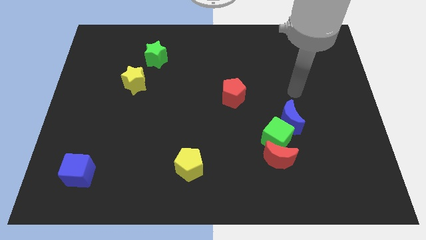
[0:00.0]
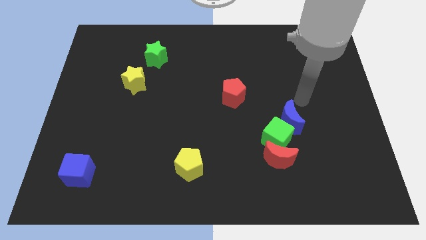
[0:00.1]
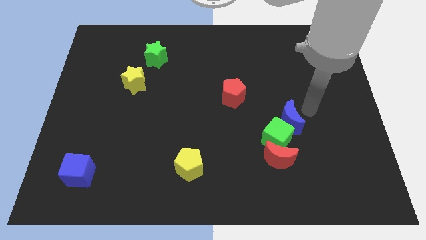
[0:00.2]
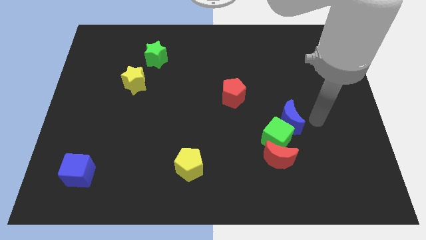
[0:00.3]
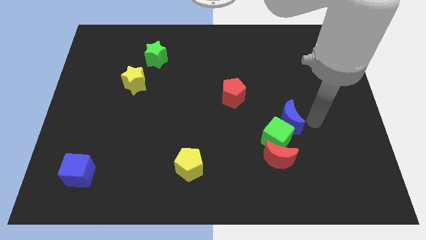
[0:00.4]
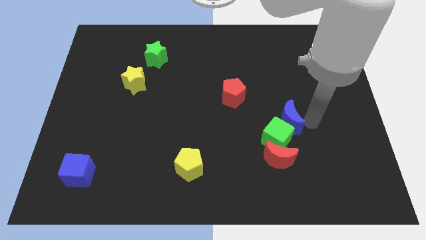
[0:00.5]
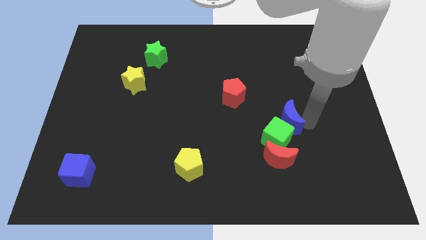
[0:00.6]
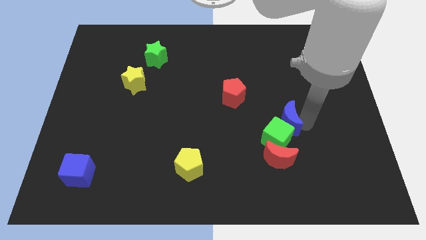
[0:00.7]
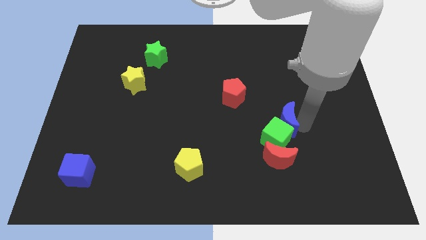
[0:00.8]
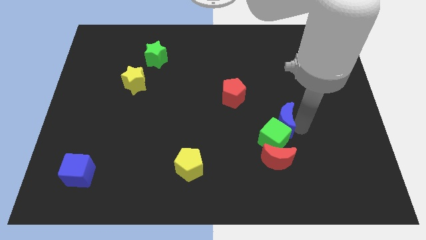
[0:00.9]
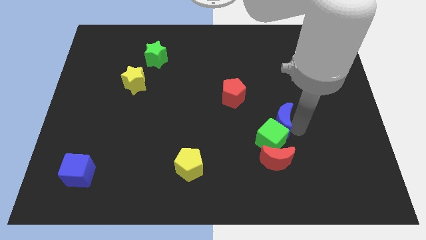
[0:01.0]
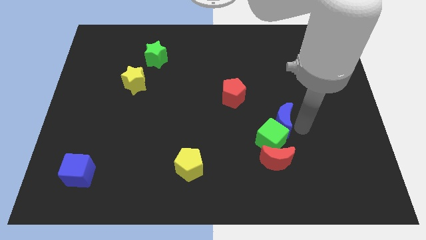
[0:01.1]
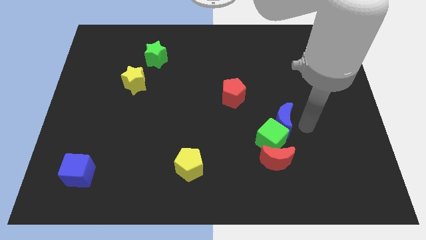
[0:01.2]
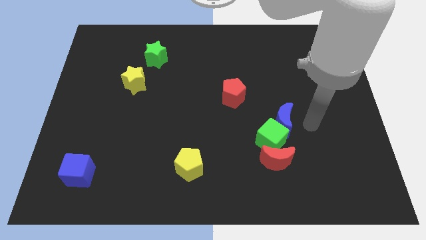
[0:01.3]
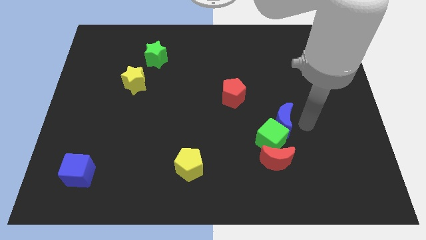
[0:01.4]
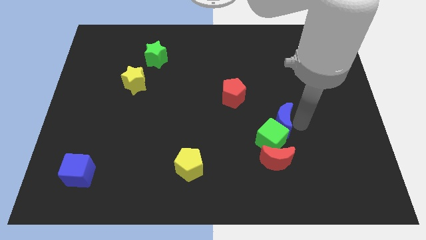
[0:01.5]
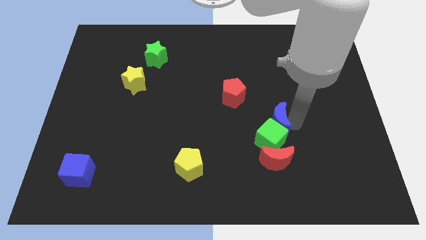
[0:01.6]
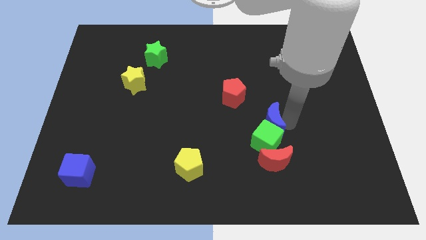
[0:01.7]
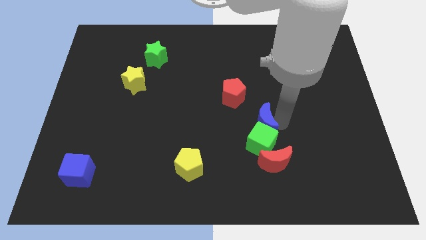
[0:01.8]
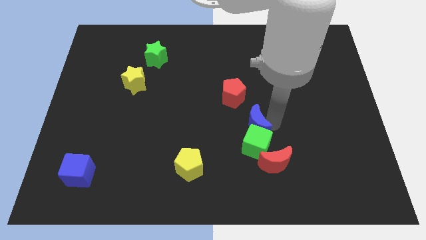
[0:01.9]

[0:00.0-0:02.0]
slide the blue moon to the left a little bit

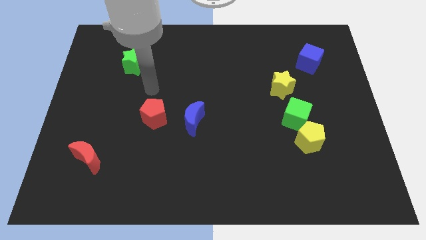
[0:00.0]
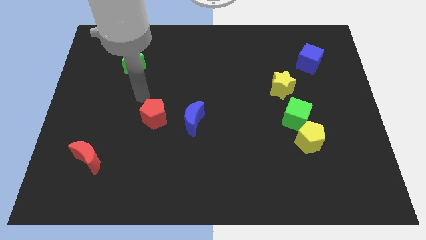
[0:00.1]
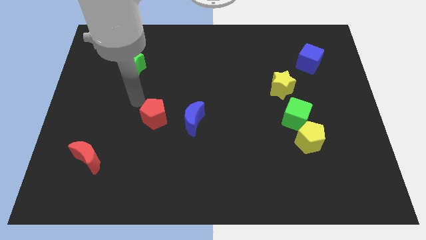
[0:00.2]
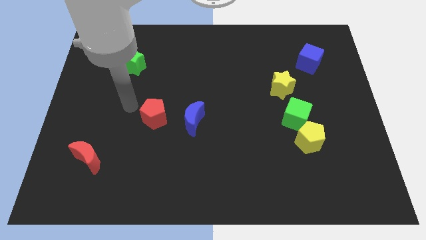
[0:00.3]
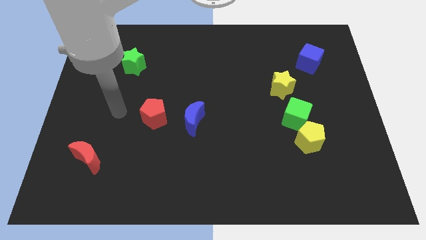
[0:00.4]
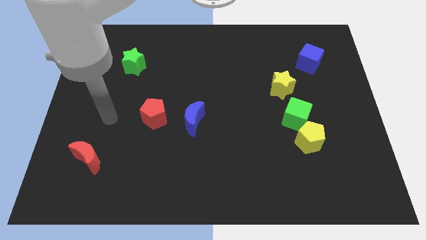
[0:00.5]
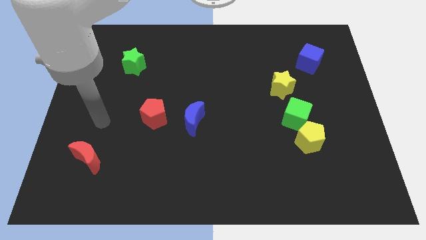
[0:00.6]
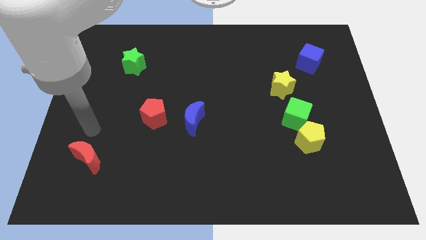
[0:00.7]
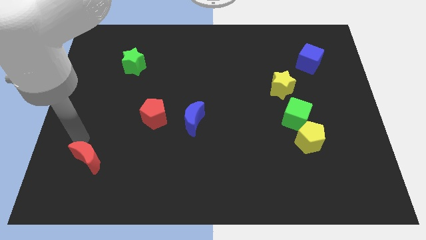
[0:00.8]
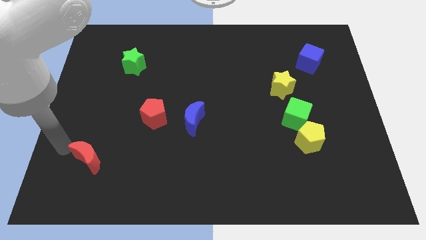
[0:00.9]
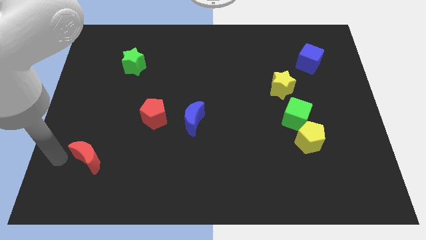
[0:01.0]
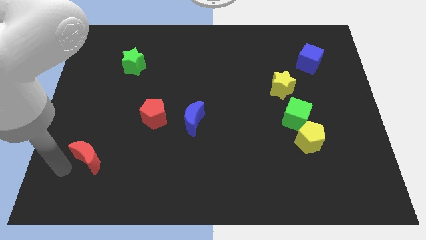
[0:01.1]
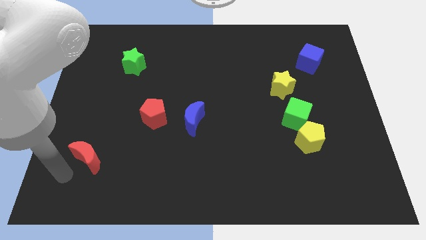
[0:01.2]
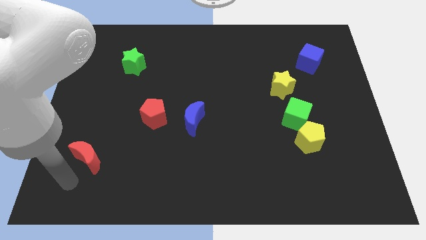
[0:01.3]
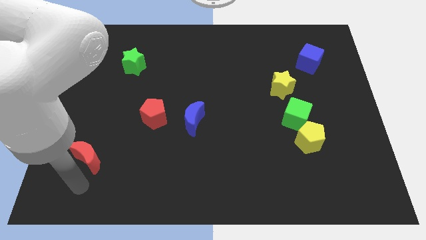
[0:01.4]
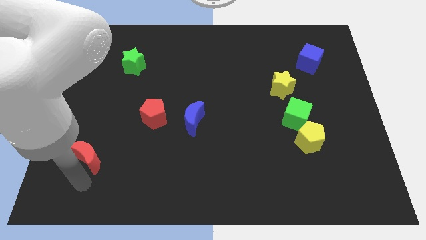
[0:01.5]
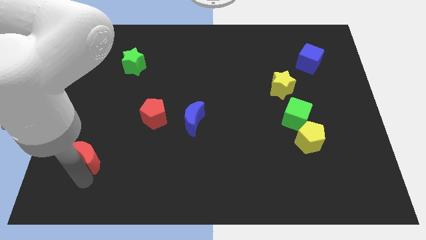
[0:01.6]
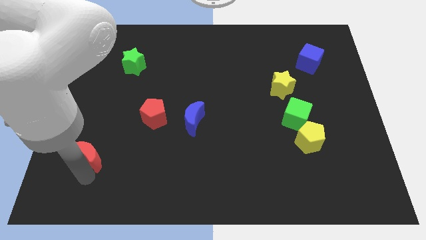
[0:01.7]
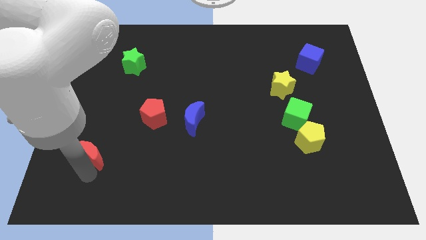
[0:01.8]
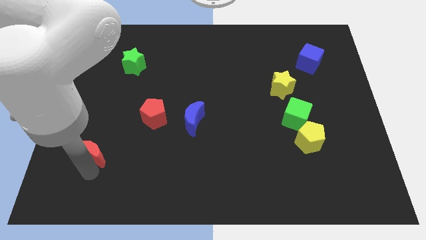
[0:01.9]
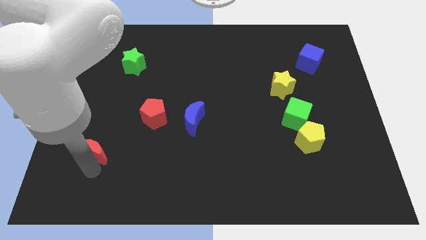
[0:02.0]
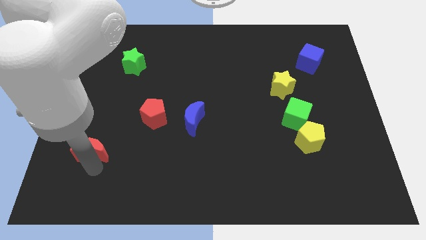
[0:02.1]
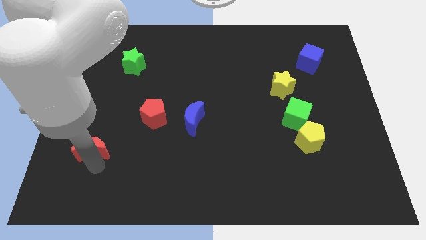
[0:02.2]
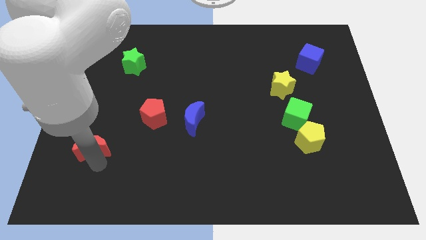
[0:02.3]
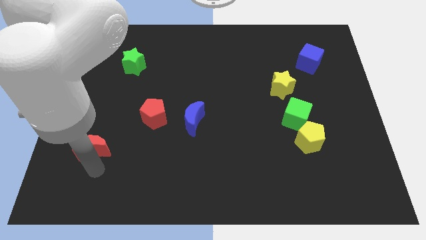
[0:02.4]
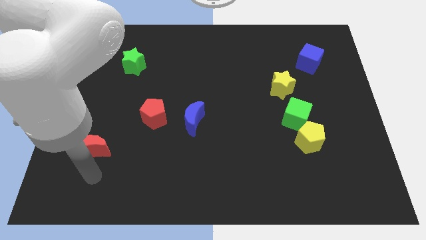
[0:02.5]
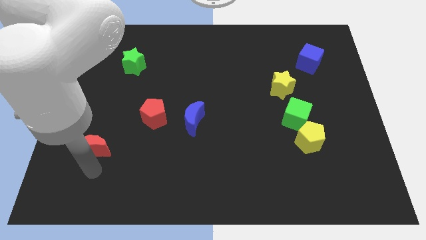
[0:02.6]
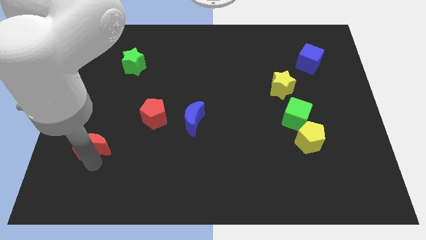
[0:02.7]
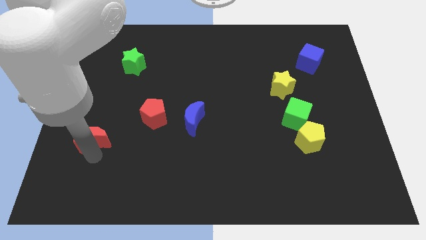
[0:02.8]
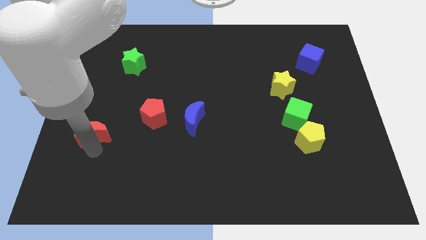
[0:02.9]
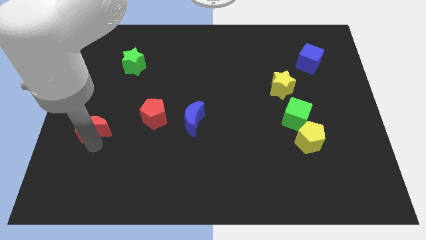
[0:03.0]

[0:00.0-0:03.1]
slightly slide the red moon upwards

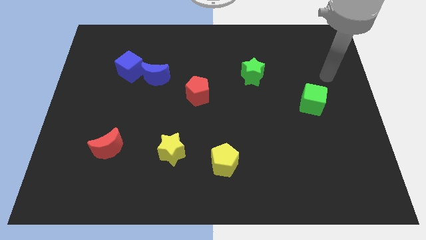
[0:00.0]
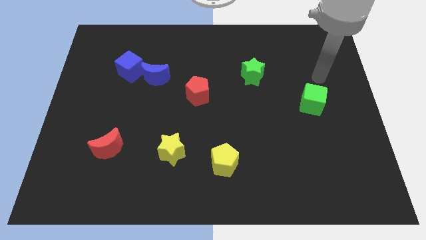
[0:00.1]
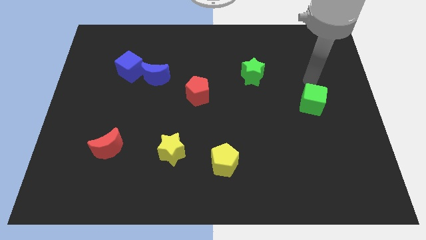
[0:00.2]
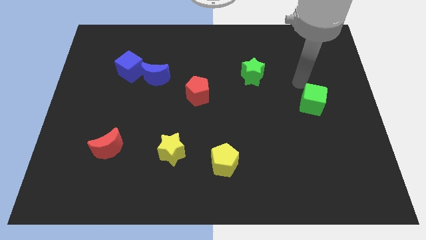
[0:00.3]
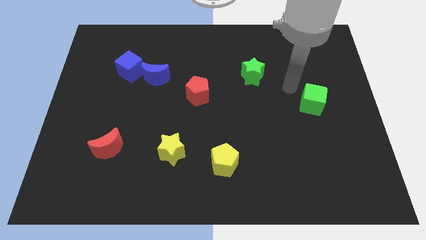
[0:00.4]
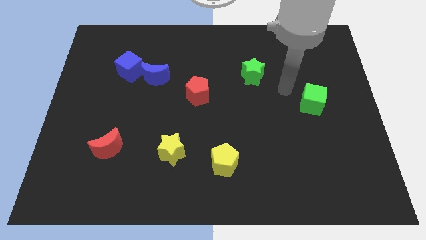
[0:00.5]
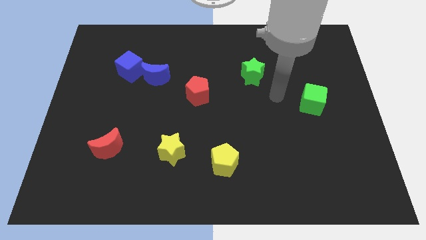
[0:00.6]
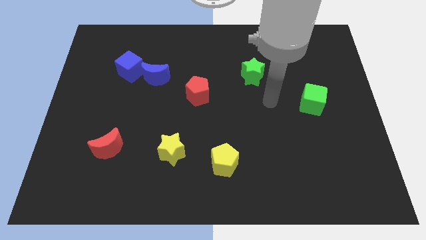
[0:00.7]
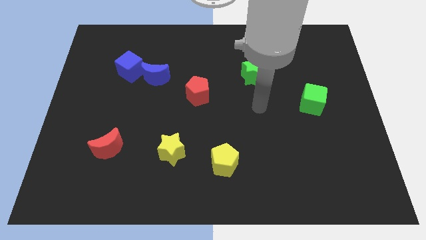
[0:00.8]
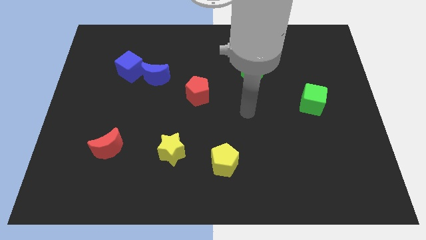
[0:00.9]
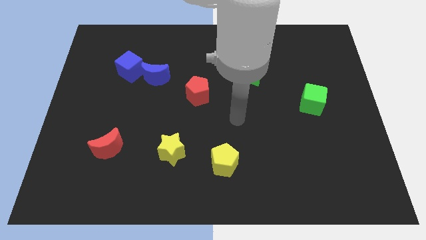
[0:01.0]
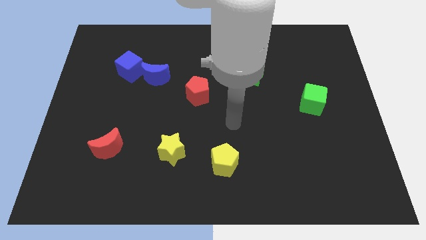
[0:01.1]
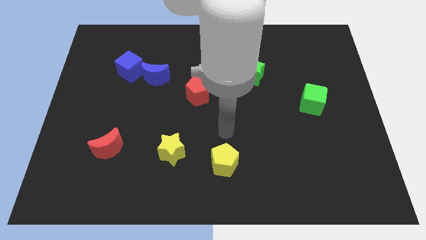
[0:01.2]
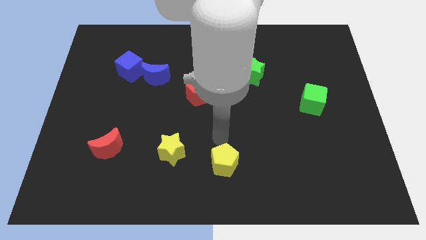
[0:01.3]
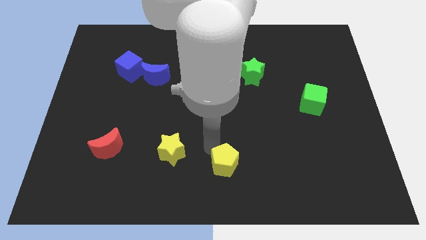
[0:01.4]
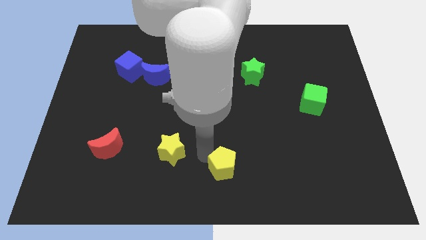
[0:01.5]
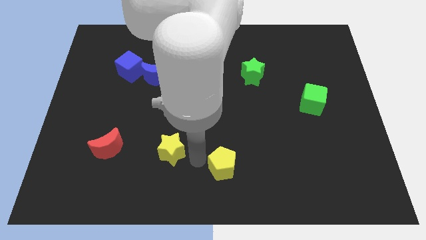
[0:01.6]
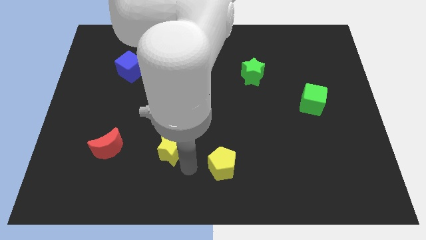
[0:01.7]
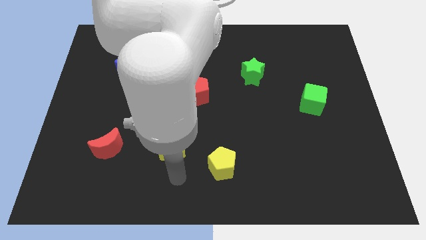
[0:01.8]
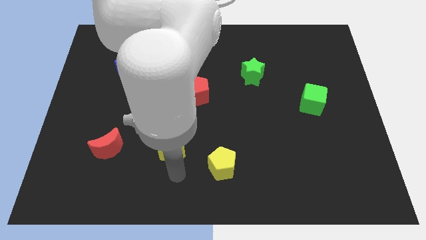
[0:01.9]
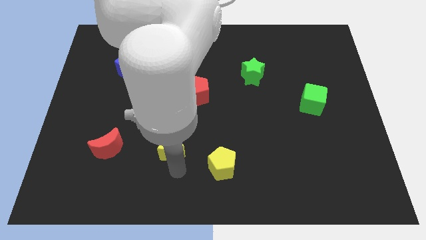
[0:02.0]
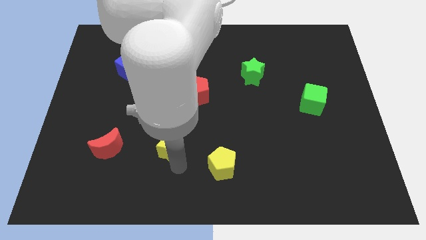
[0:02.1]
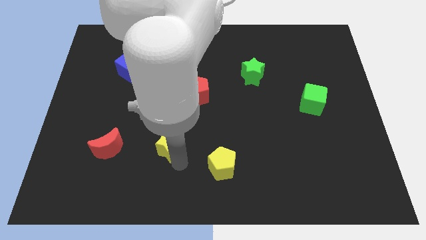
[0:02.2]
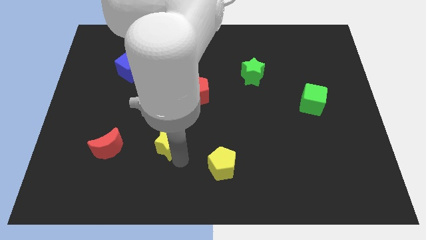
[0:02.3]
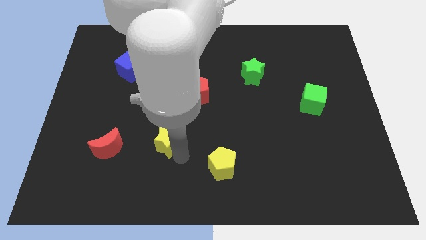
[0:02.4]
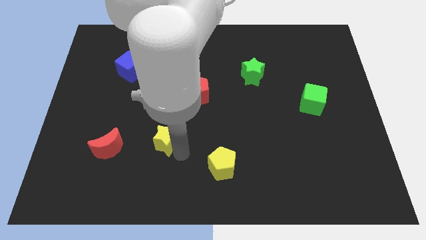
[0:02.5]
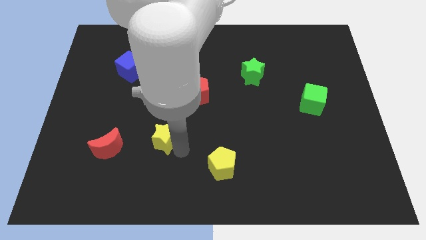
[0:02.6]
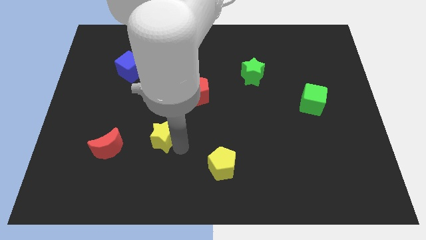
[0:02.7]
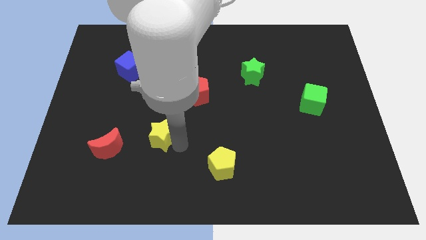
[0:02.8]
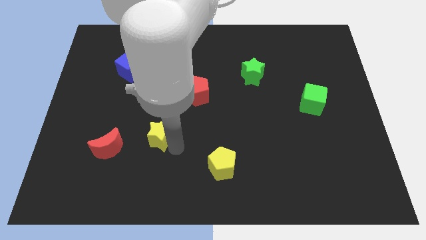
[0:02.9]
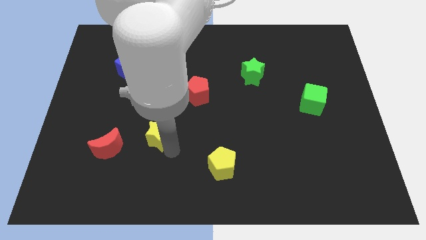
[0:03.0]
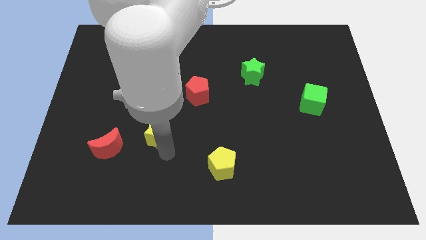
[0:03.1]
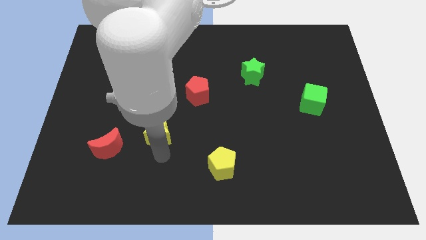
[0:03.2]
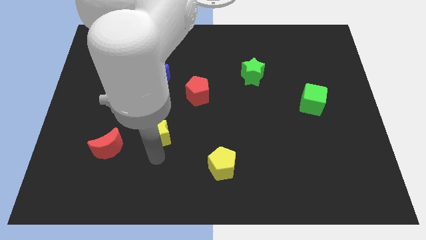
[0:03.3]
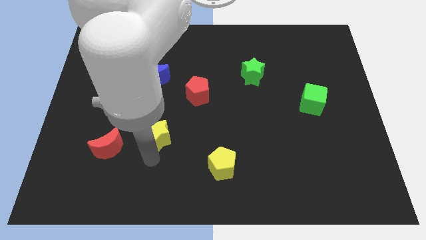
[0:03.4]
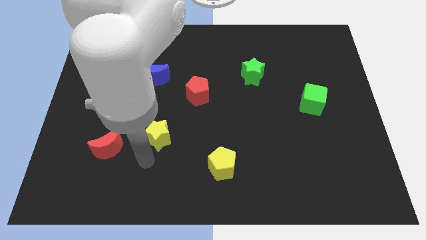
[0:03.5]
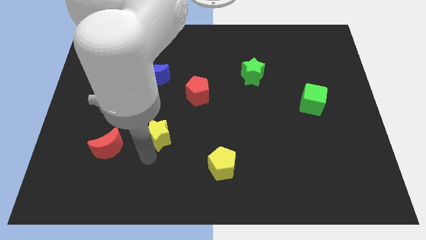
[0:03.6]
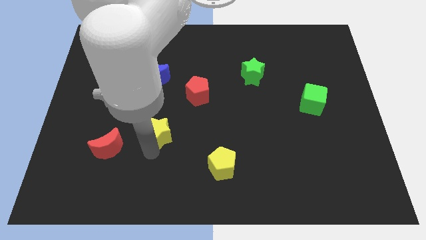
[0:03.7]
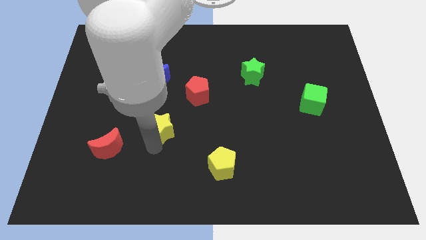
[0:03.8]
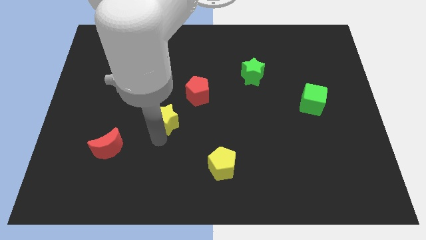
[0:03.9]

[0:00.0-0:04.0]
push the yellow star up a bit
